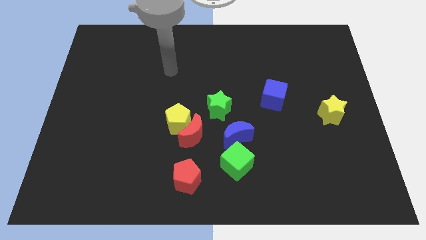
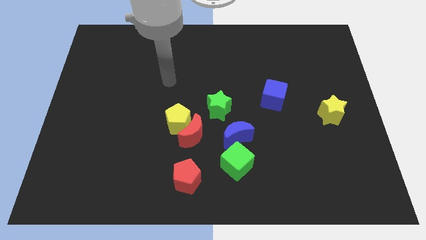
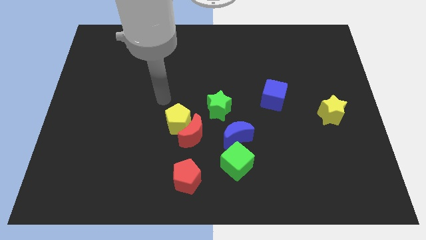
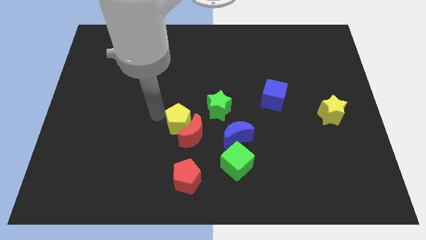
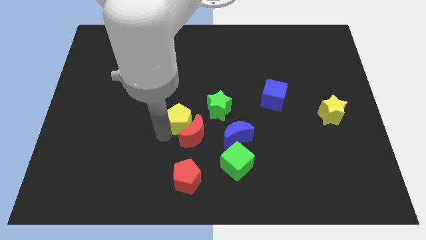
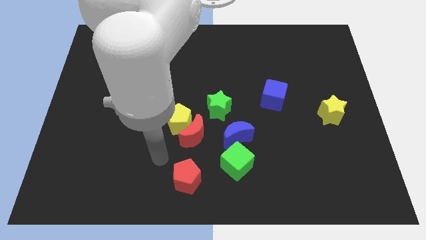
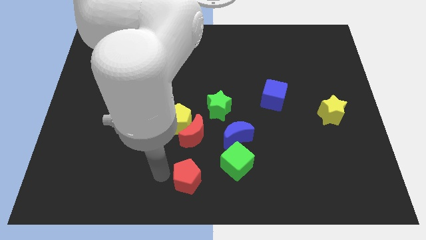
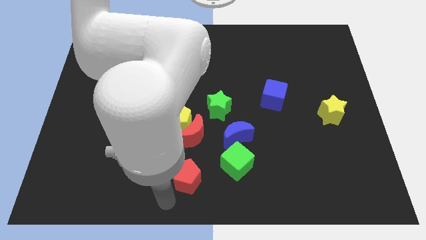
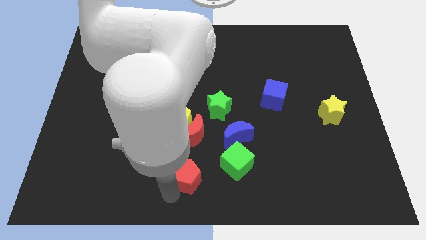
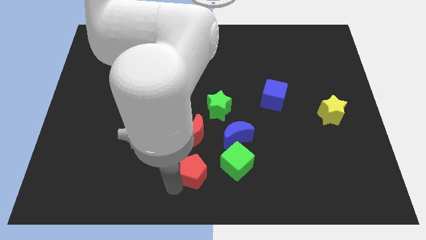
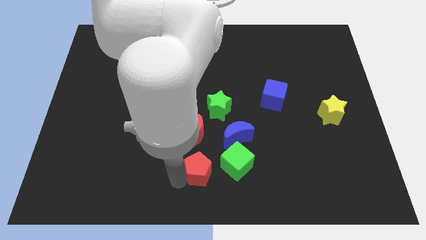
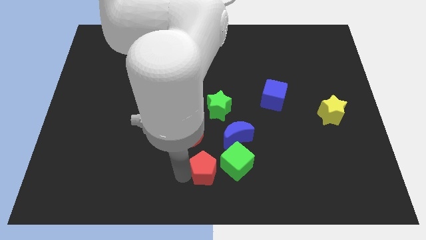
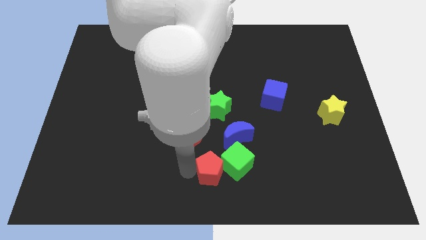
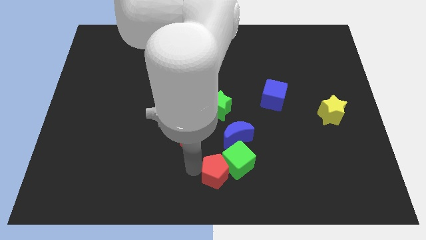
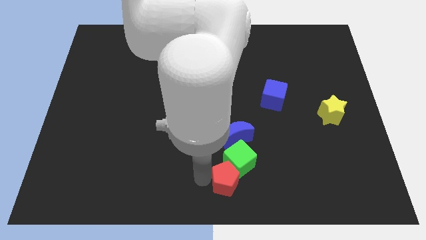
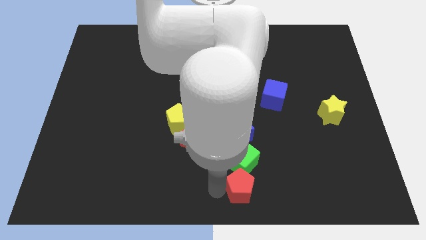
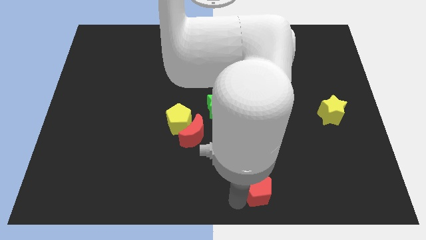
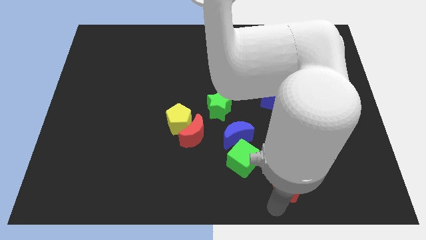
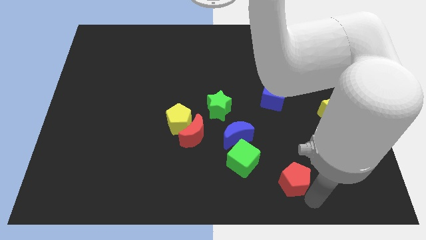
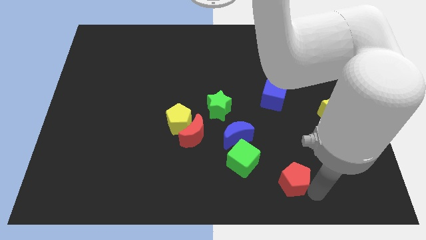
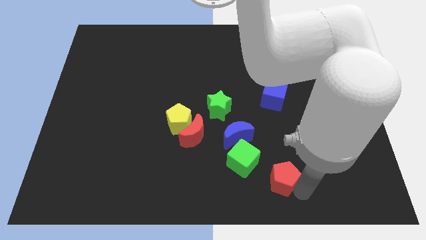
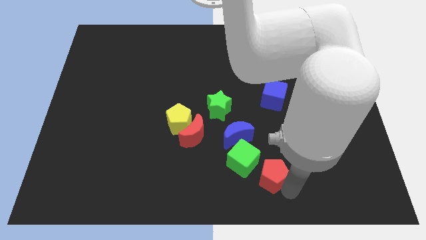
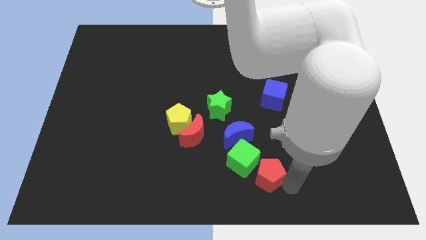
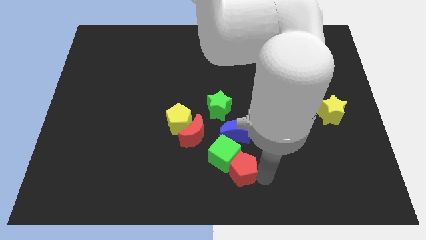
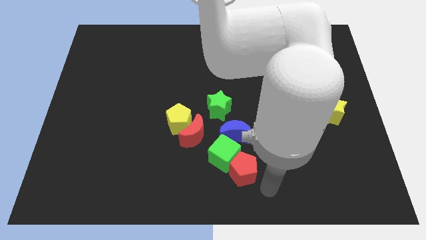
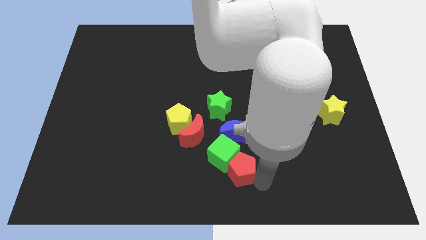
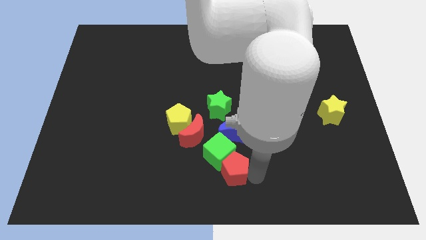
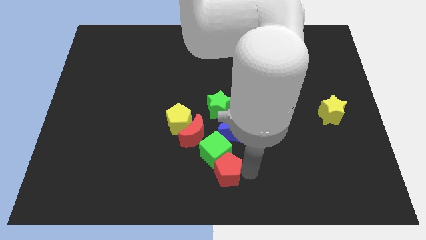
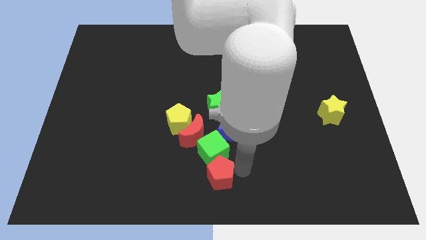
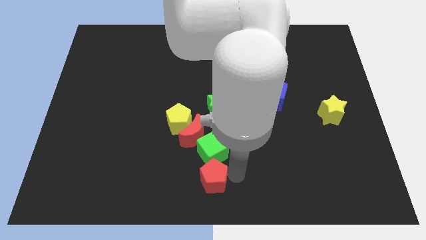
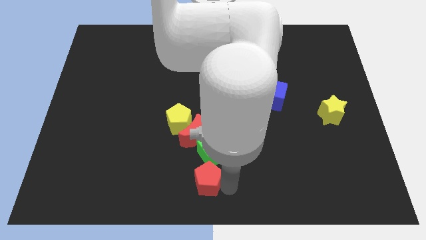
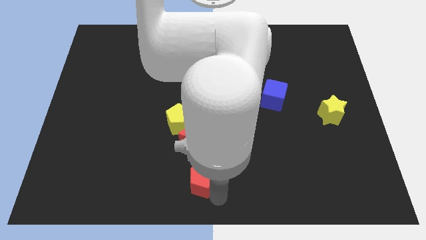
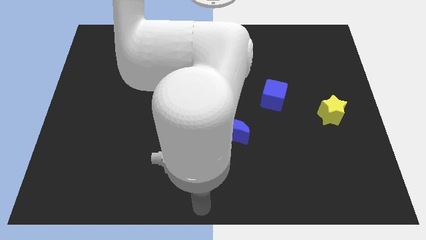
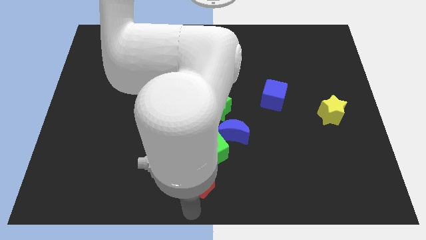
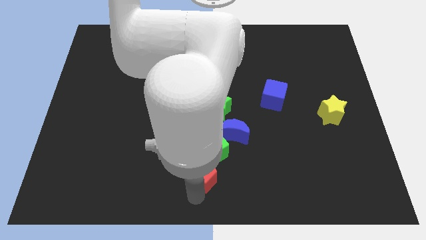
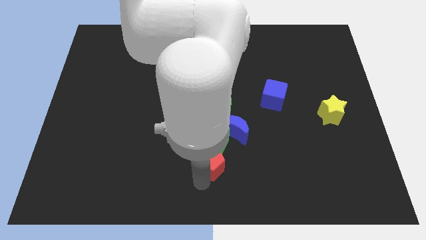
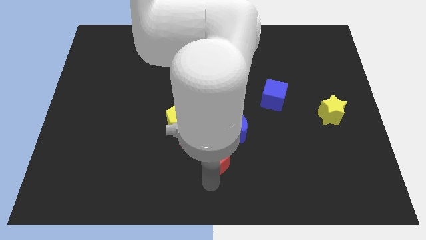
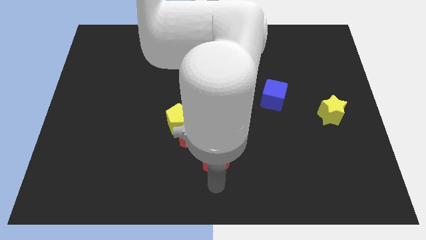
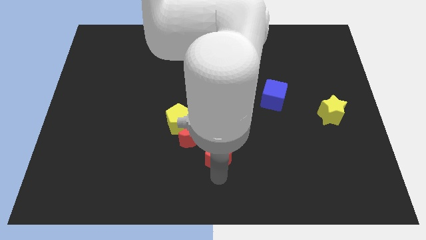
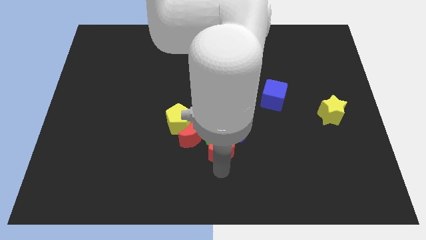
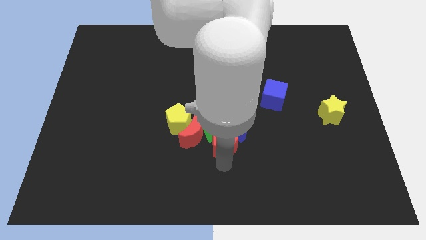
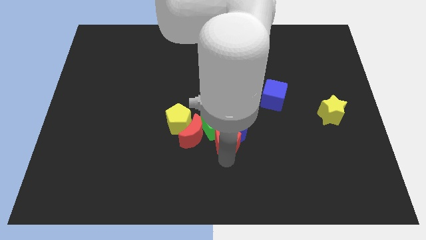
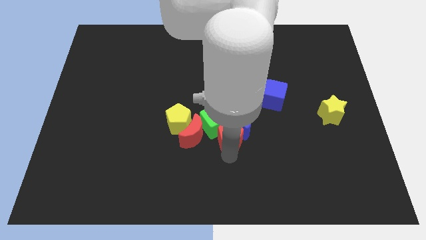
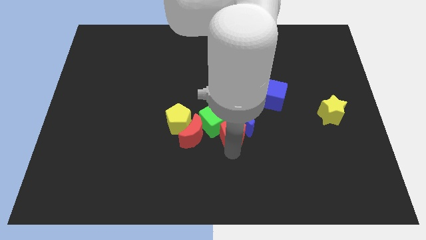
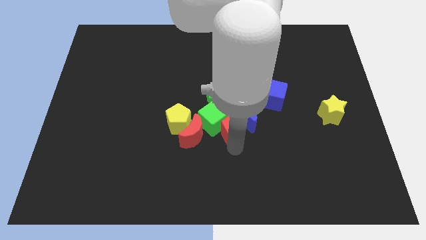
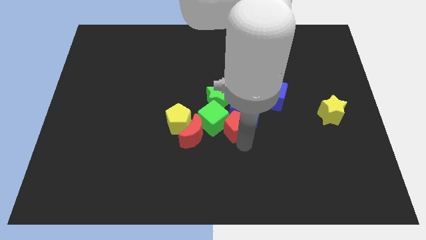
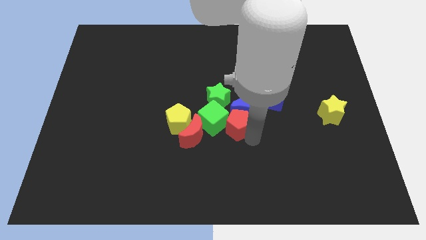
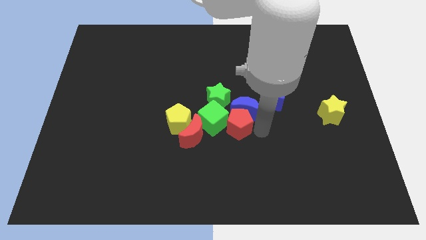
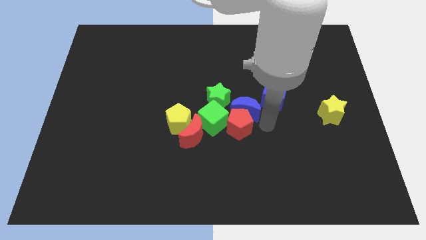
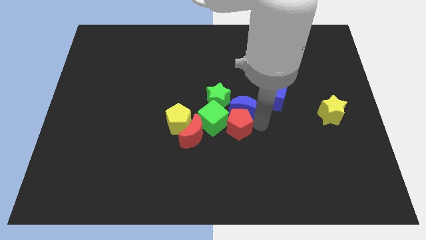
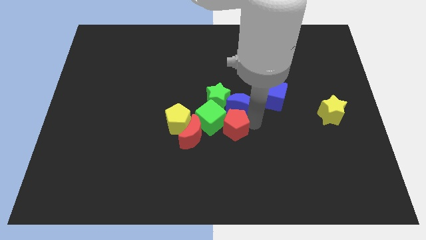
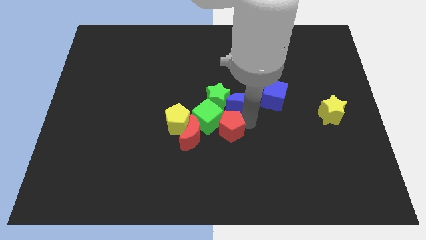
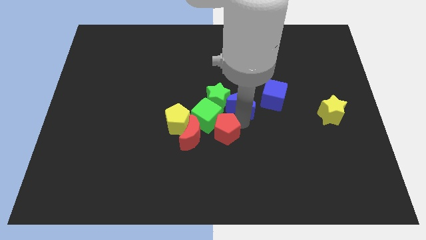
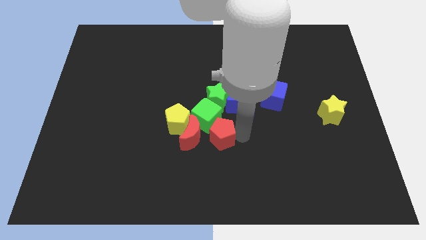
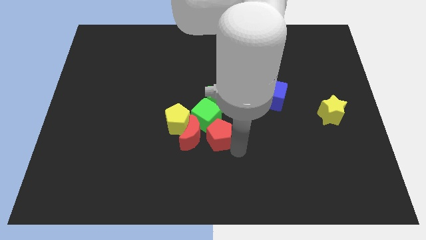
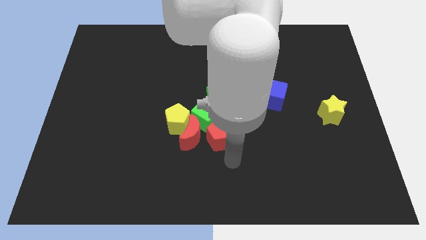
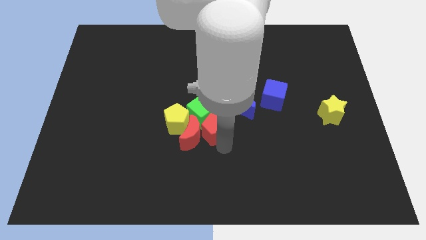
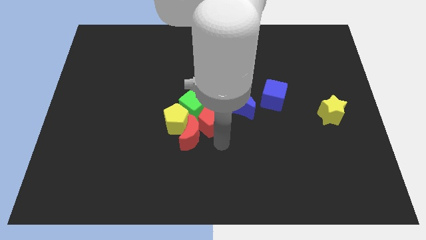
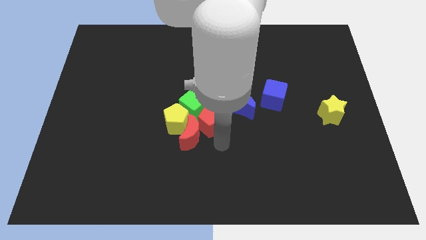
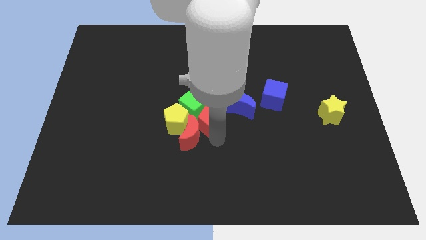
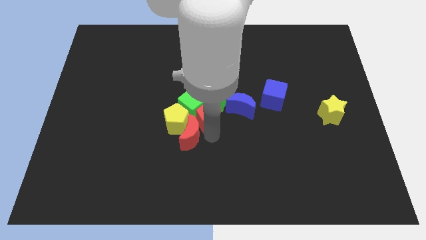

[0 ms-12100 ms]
push the red pentagon diagonally up and to the right of the yellow pentagon
